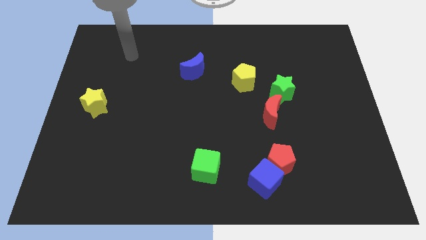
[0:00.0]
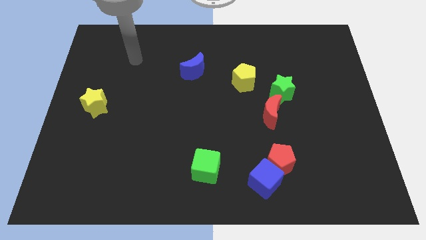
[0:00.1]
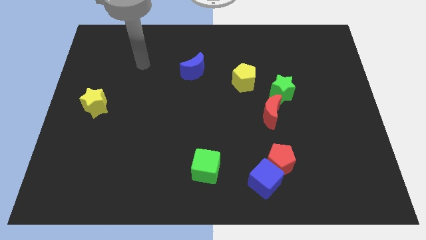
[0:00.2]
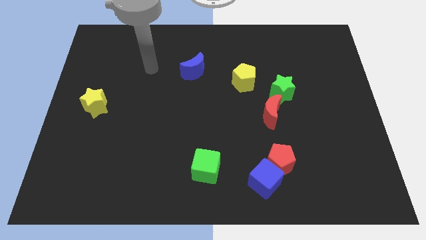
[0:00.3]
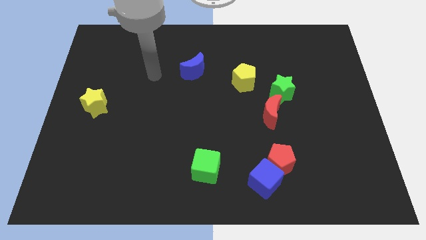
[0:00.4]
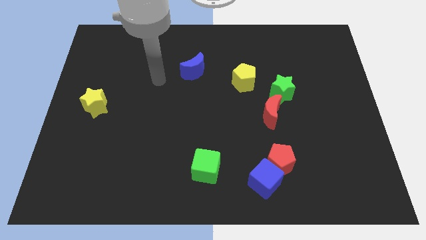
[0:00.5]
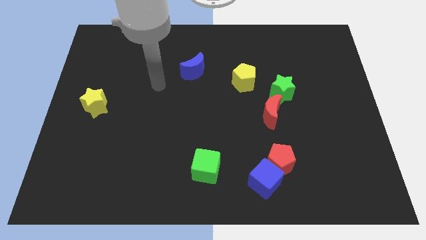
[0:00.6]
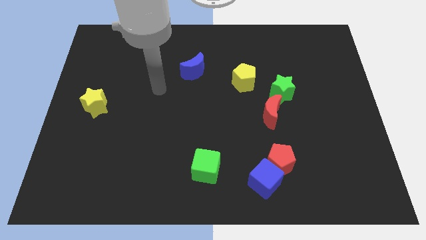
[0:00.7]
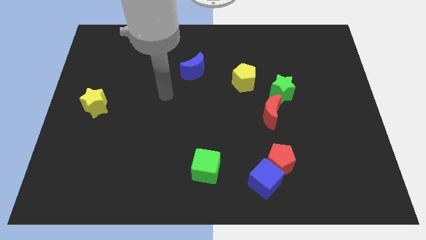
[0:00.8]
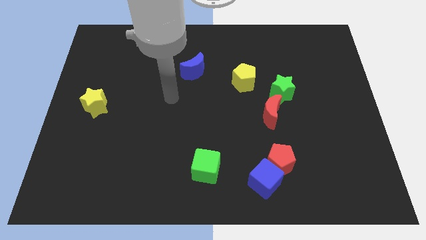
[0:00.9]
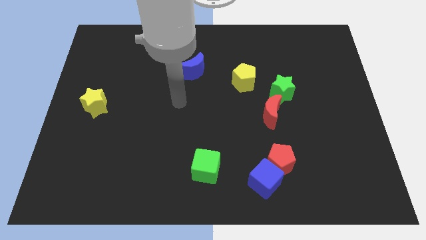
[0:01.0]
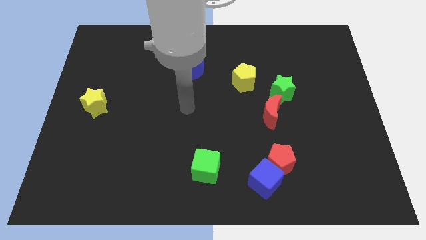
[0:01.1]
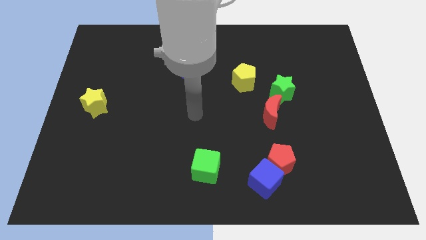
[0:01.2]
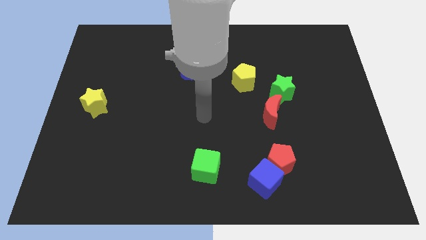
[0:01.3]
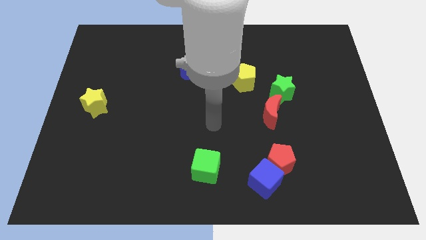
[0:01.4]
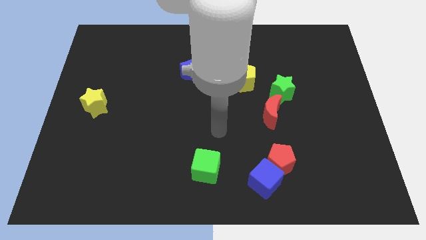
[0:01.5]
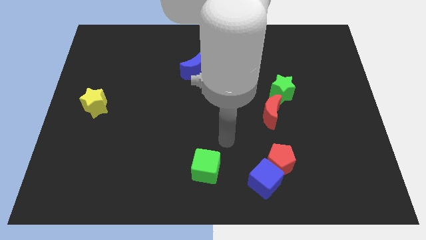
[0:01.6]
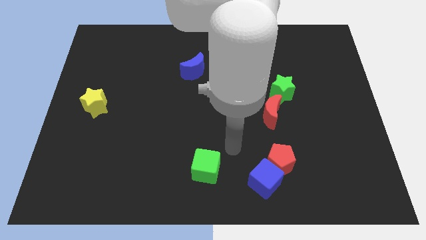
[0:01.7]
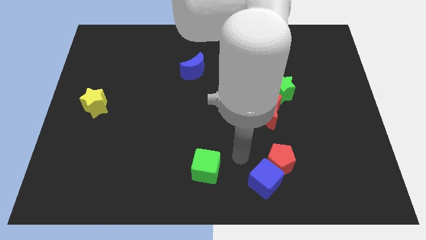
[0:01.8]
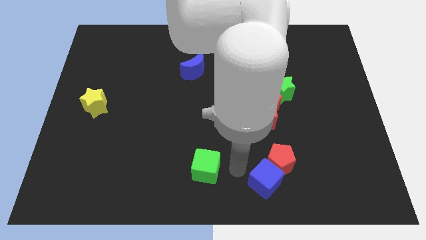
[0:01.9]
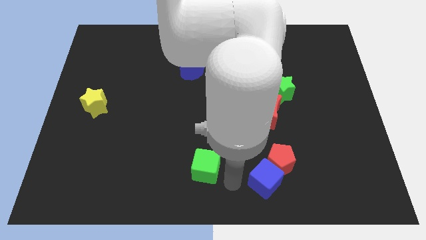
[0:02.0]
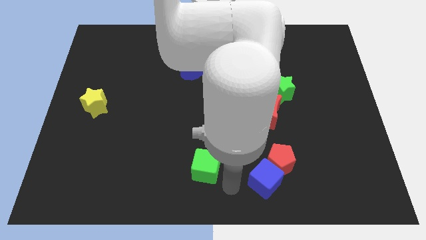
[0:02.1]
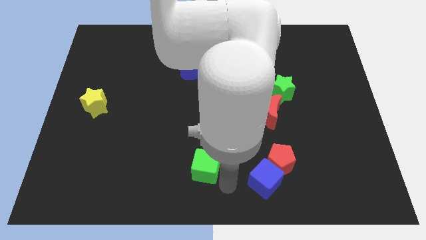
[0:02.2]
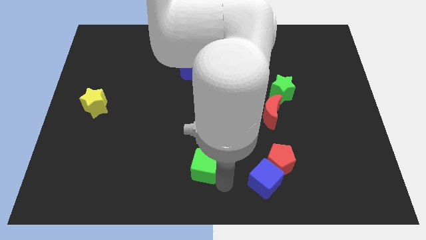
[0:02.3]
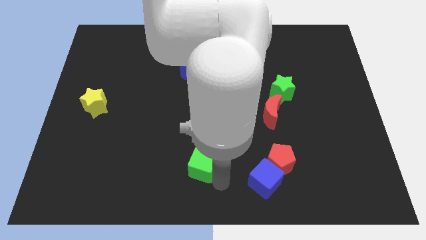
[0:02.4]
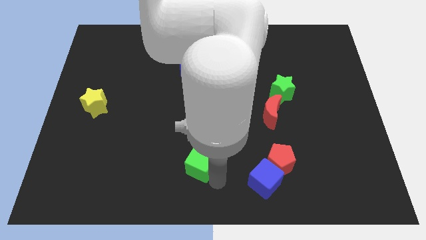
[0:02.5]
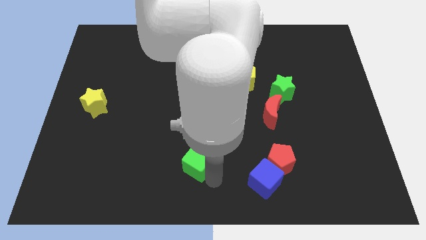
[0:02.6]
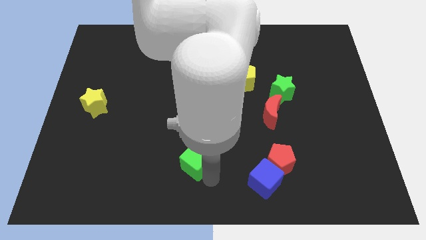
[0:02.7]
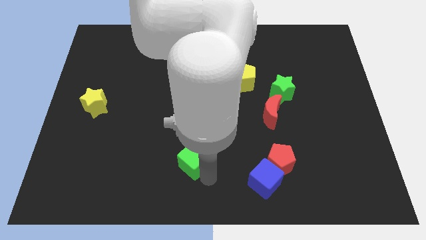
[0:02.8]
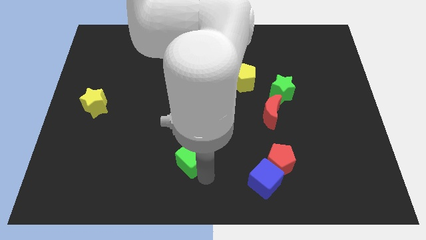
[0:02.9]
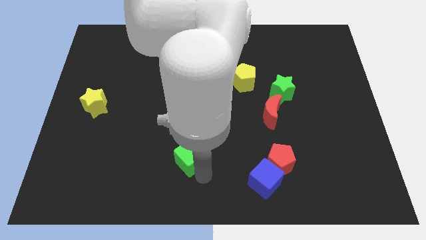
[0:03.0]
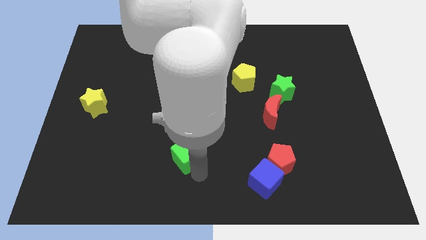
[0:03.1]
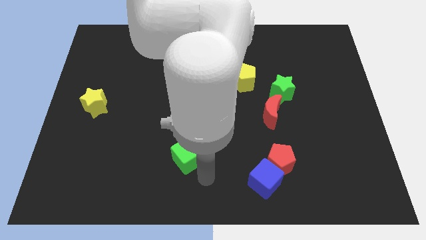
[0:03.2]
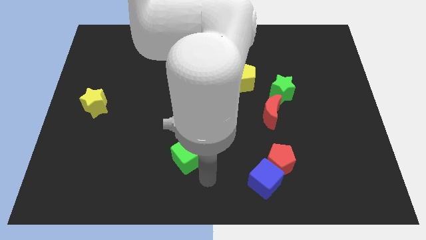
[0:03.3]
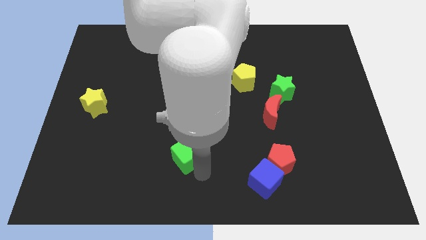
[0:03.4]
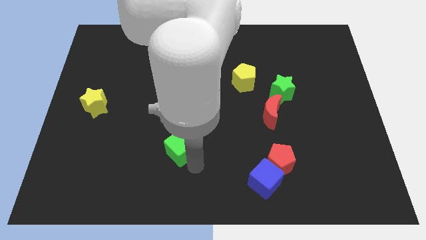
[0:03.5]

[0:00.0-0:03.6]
slide the green cube a bit diagonally up and left

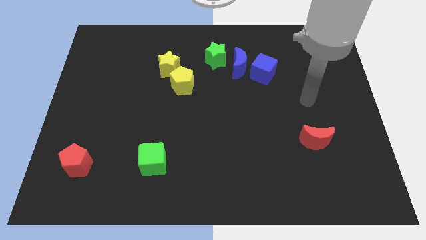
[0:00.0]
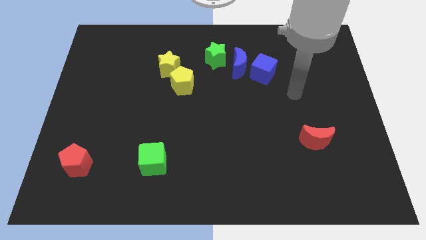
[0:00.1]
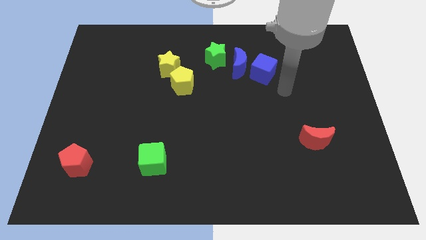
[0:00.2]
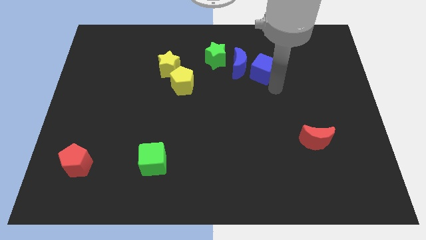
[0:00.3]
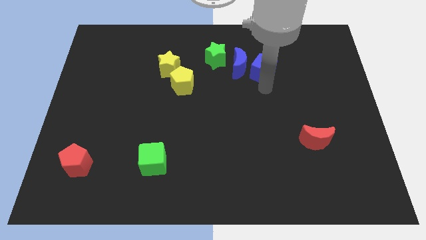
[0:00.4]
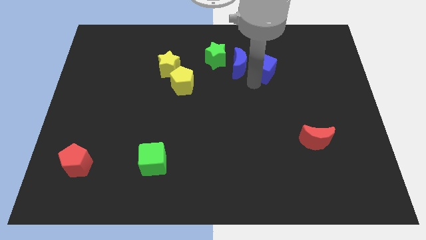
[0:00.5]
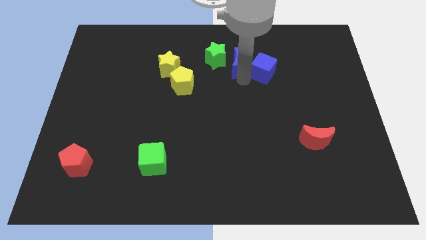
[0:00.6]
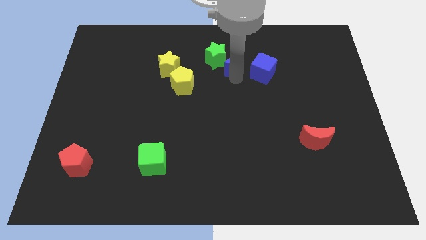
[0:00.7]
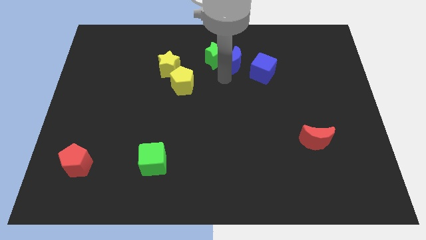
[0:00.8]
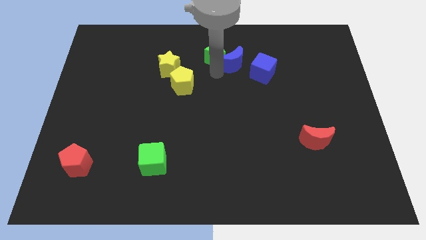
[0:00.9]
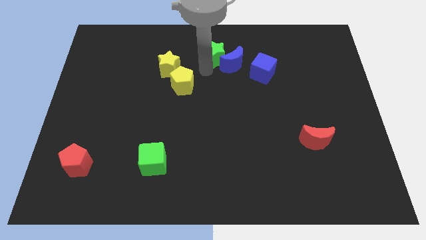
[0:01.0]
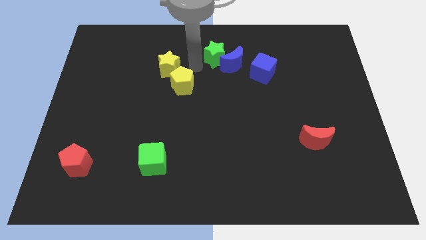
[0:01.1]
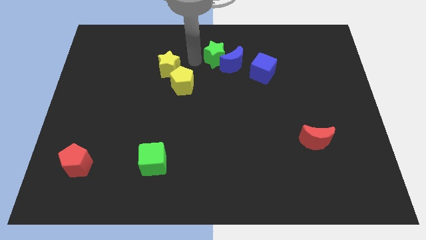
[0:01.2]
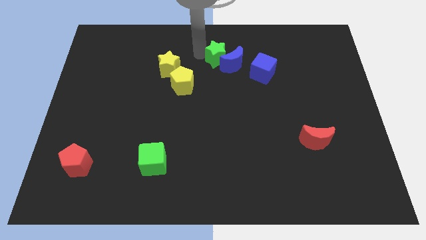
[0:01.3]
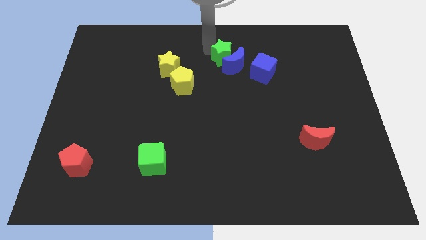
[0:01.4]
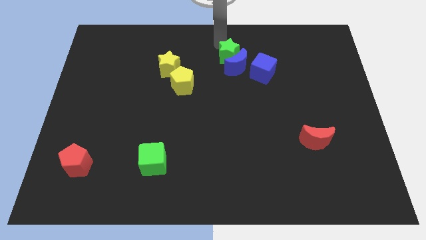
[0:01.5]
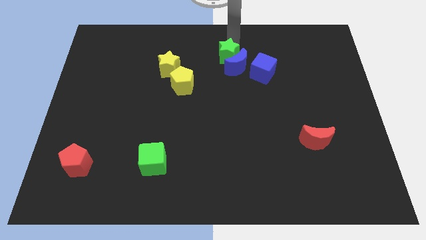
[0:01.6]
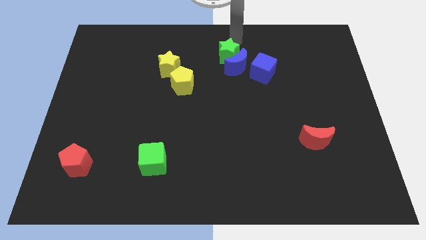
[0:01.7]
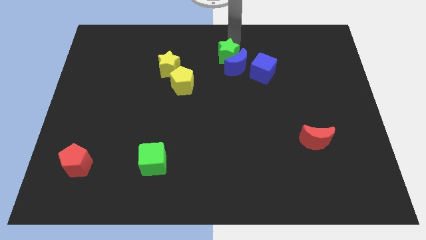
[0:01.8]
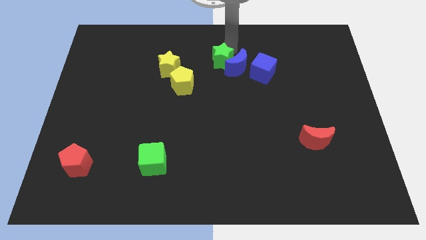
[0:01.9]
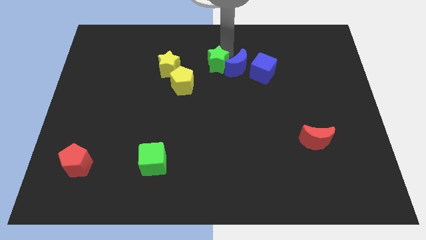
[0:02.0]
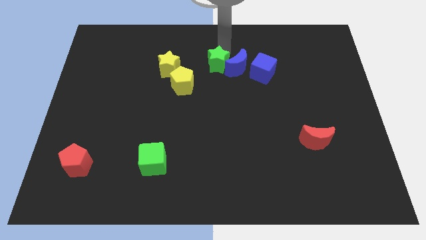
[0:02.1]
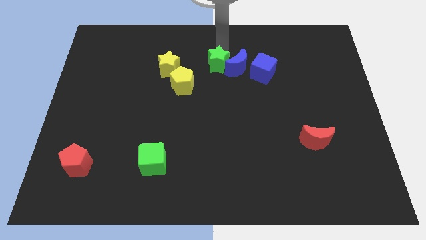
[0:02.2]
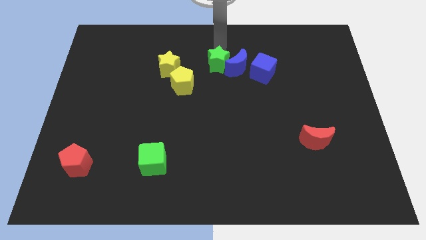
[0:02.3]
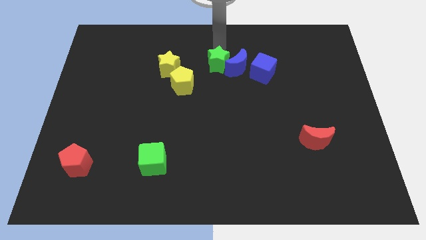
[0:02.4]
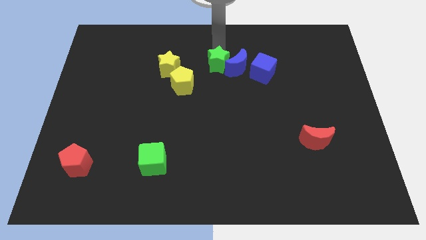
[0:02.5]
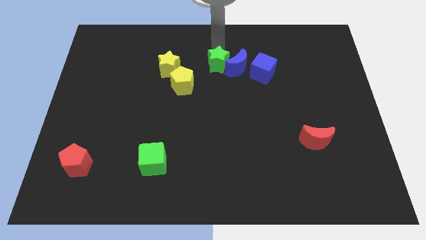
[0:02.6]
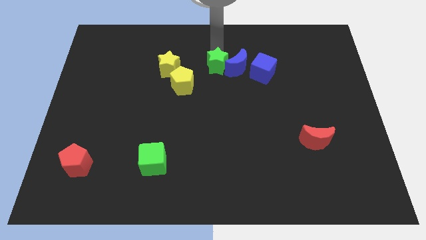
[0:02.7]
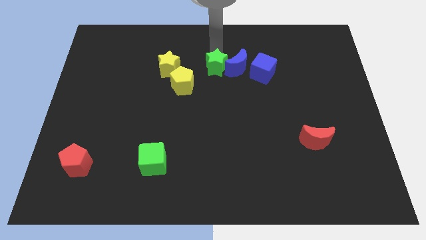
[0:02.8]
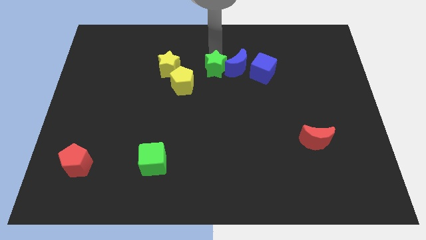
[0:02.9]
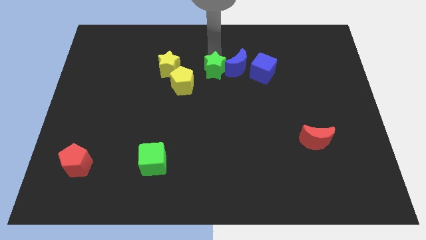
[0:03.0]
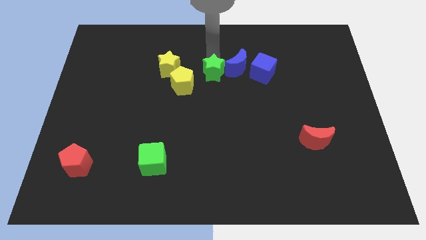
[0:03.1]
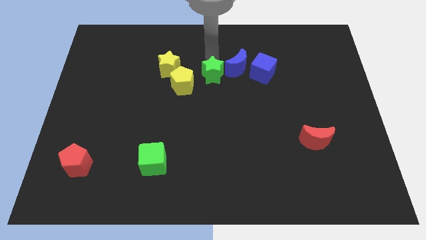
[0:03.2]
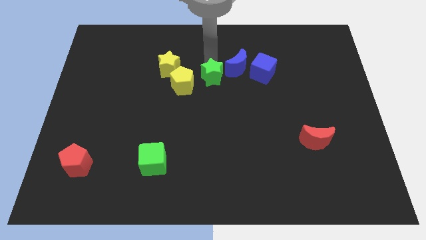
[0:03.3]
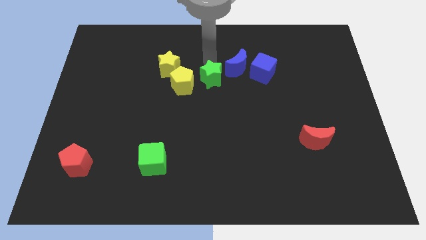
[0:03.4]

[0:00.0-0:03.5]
push the green star a little down

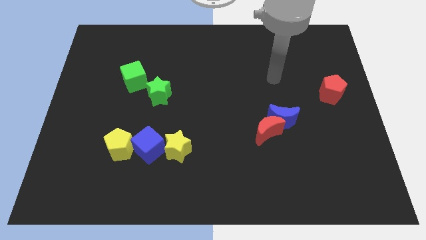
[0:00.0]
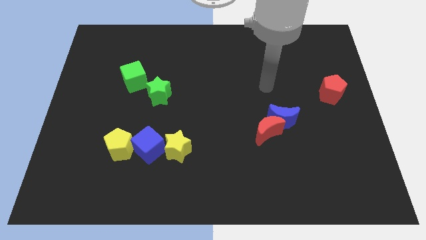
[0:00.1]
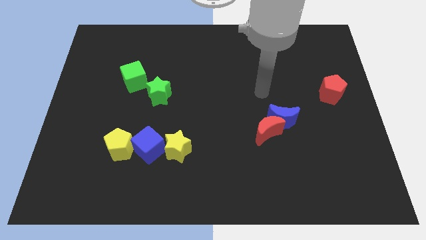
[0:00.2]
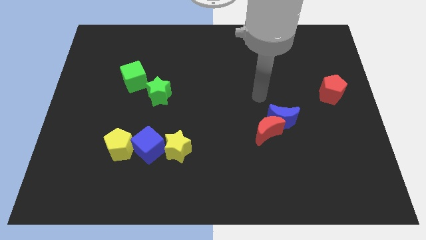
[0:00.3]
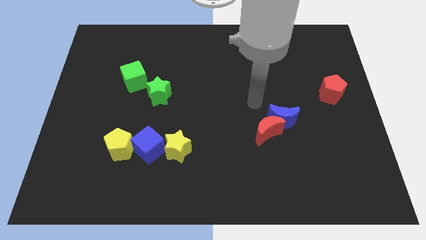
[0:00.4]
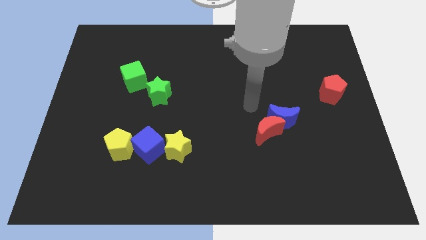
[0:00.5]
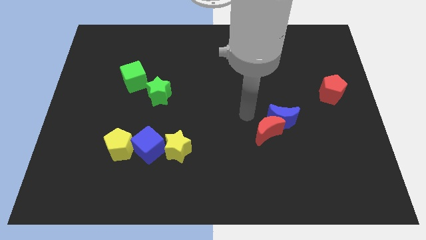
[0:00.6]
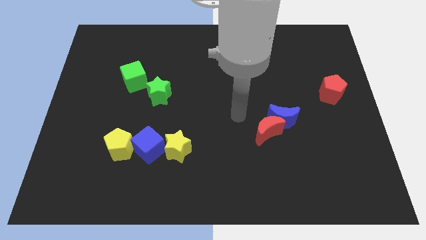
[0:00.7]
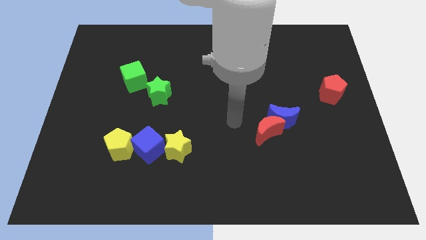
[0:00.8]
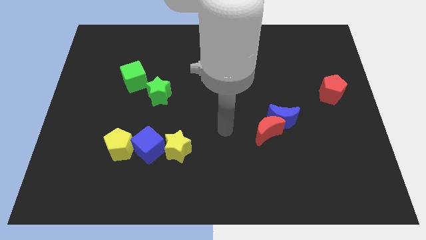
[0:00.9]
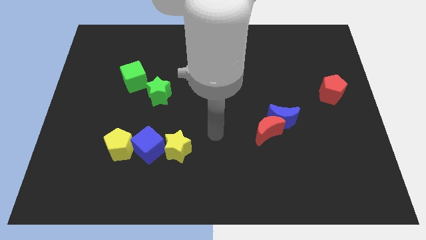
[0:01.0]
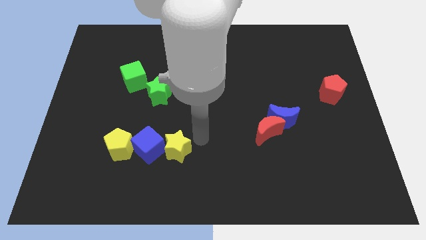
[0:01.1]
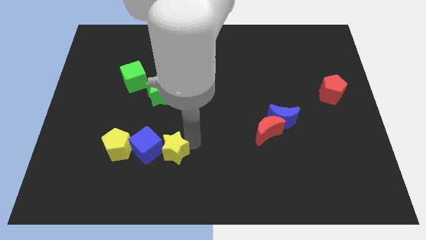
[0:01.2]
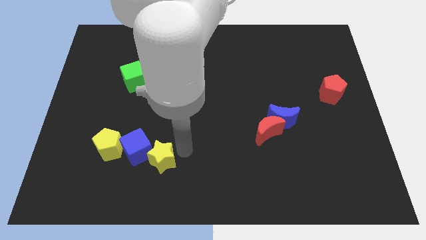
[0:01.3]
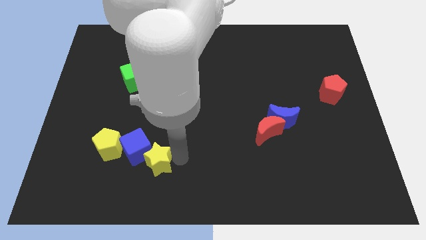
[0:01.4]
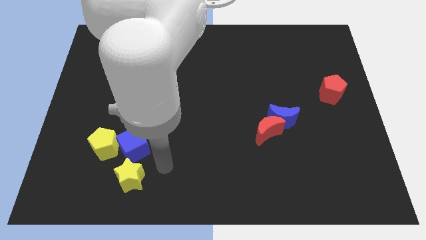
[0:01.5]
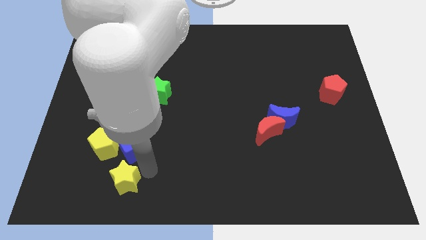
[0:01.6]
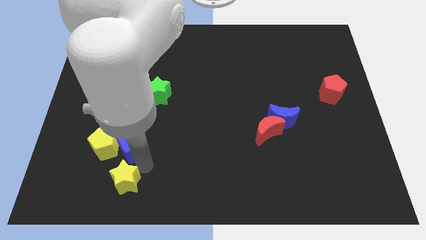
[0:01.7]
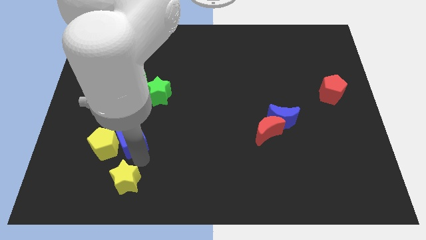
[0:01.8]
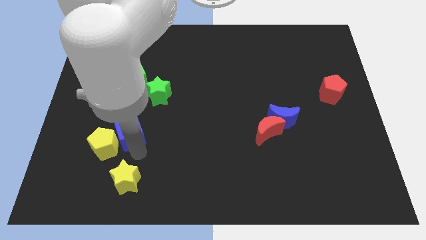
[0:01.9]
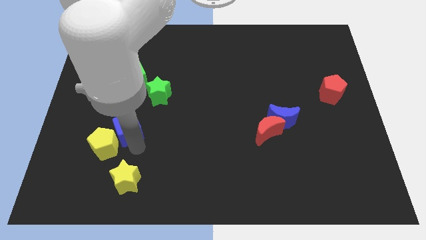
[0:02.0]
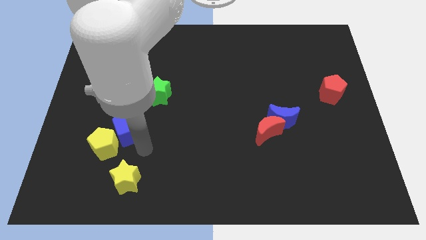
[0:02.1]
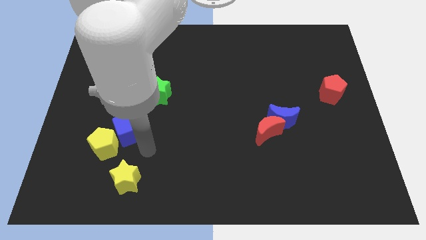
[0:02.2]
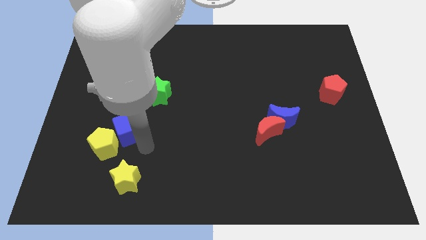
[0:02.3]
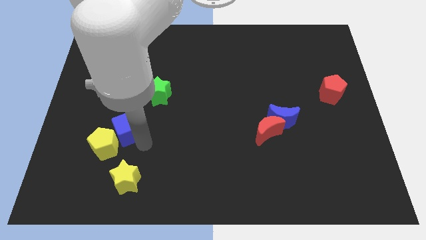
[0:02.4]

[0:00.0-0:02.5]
slide the blue cube somewhat diagonally up and left
